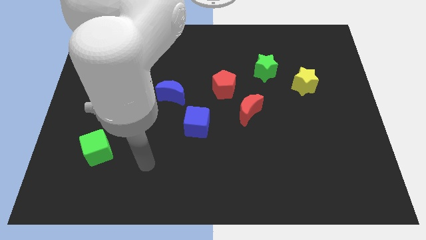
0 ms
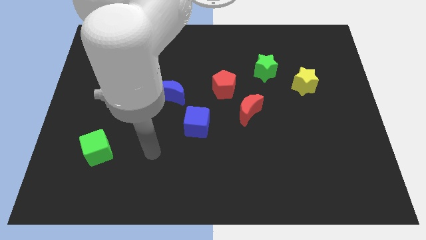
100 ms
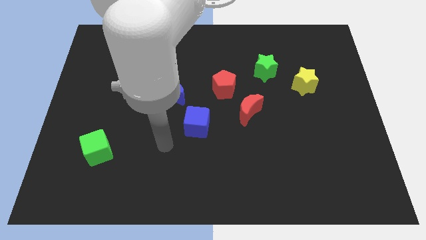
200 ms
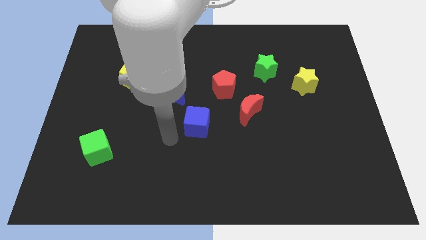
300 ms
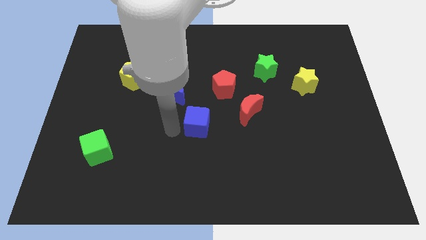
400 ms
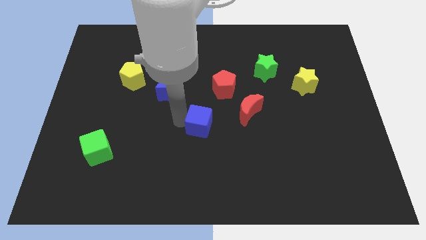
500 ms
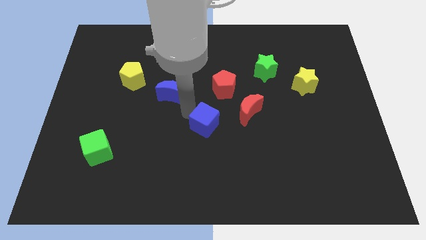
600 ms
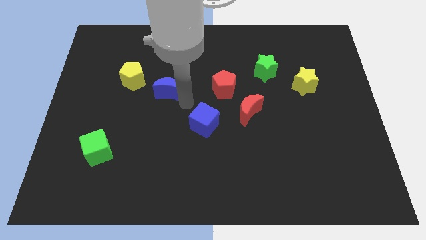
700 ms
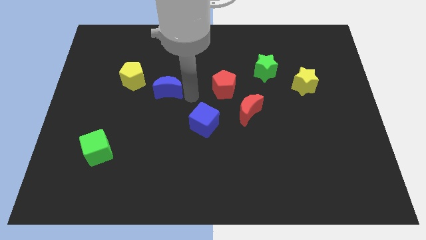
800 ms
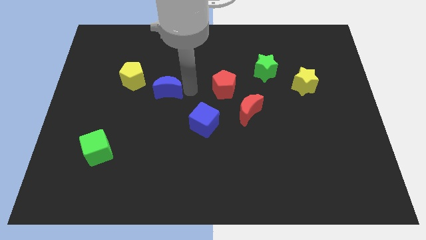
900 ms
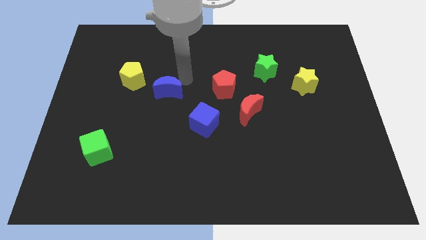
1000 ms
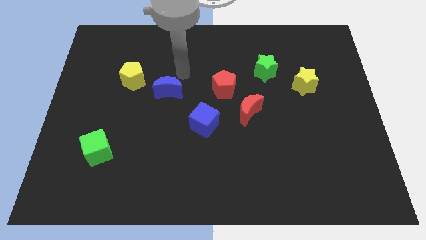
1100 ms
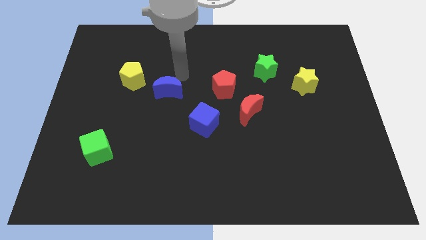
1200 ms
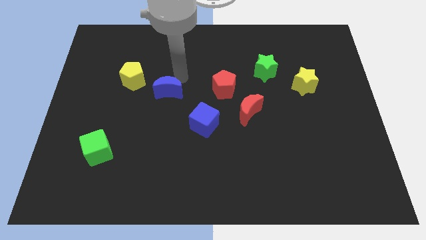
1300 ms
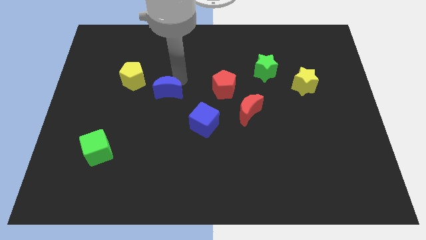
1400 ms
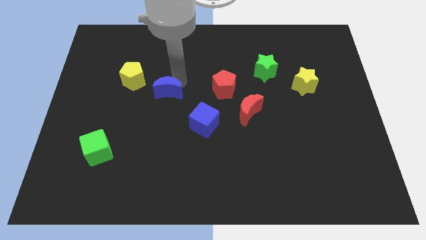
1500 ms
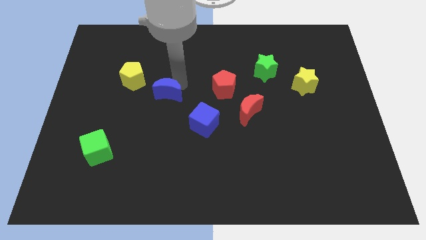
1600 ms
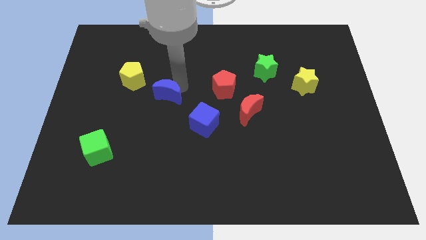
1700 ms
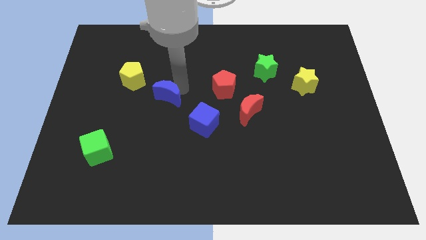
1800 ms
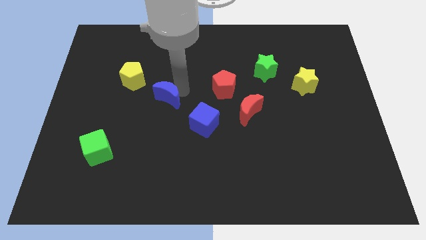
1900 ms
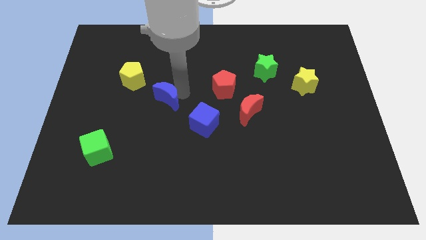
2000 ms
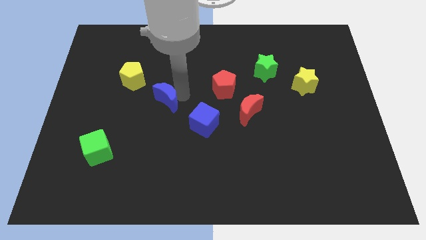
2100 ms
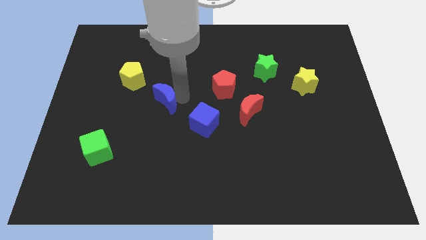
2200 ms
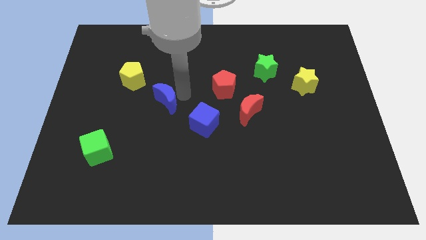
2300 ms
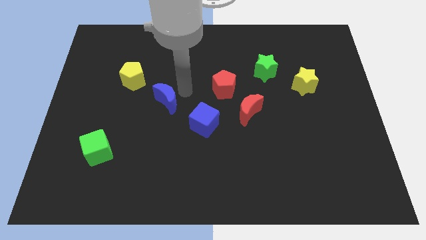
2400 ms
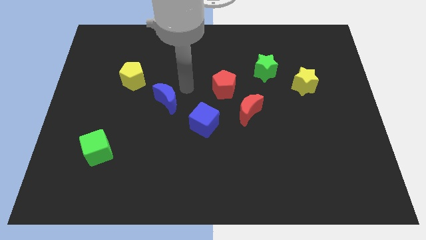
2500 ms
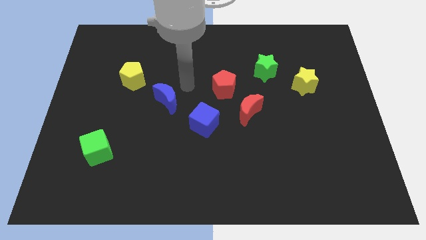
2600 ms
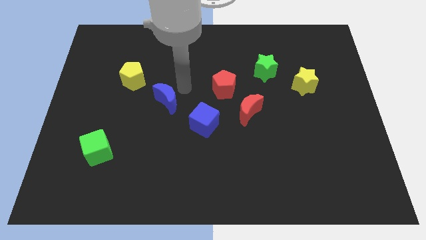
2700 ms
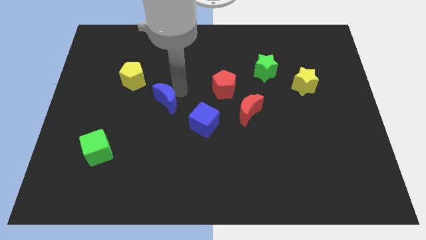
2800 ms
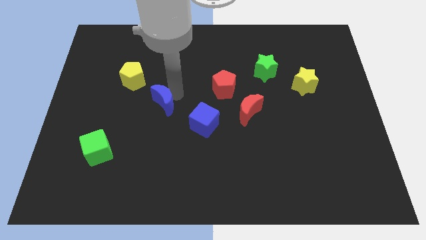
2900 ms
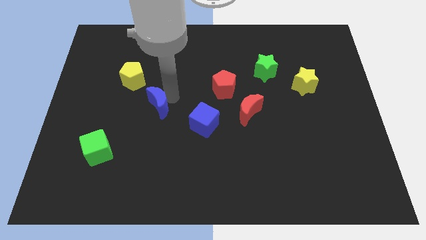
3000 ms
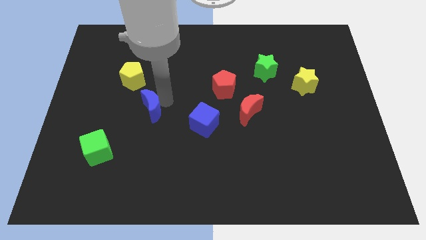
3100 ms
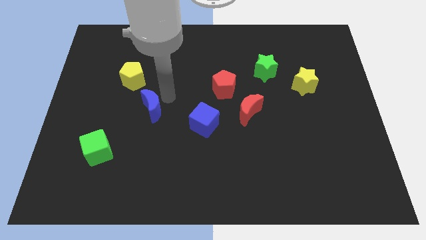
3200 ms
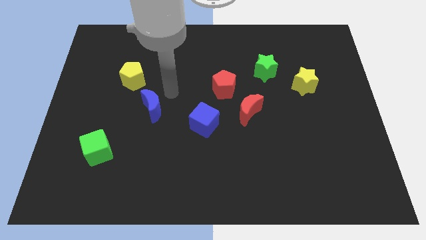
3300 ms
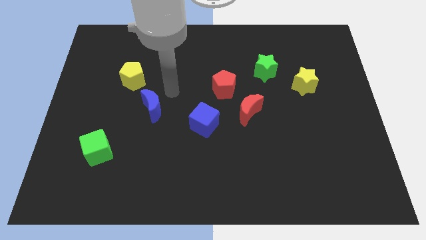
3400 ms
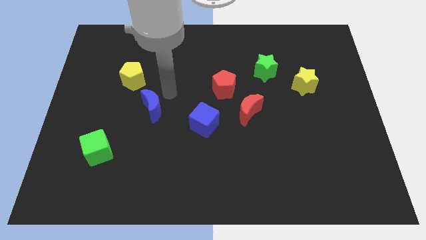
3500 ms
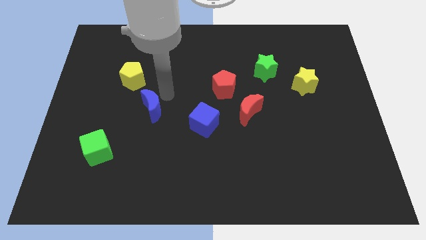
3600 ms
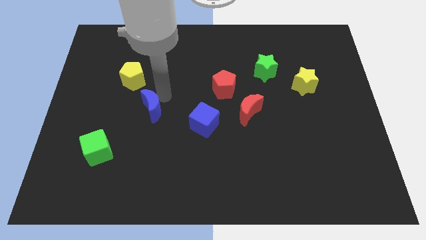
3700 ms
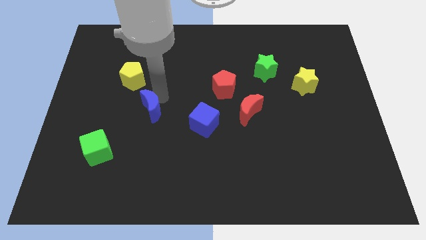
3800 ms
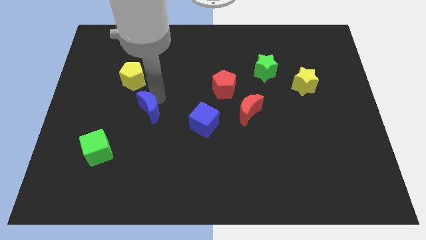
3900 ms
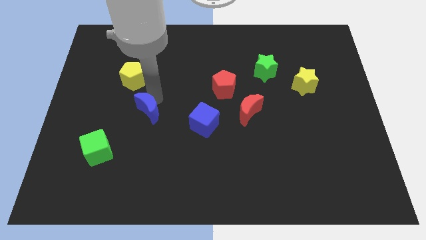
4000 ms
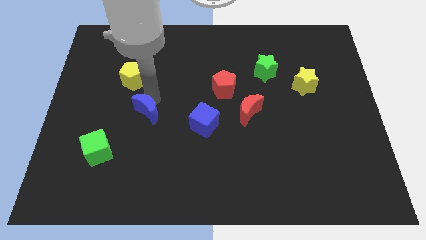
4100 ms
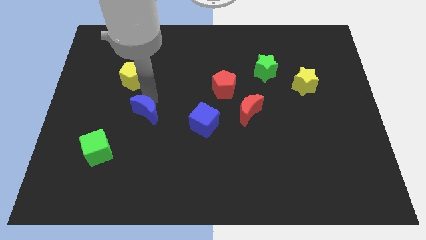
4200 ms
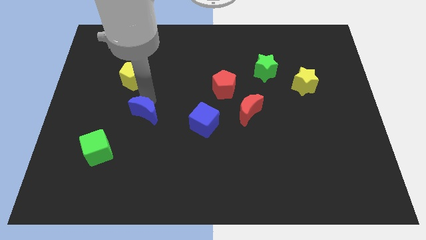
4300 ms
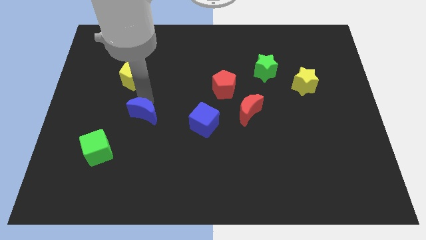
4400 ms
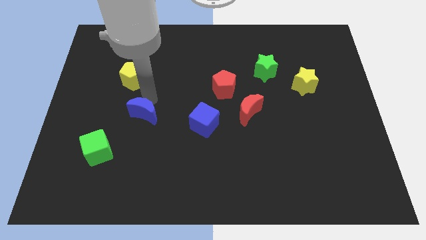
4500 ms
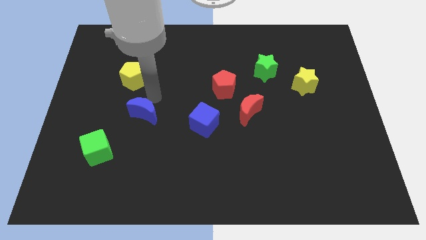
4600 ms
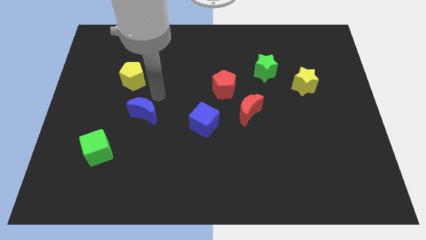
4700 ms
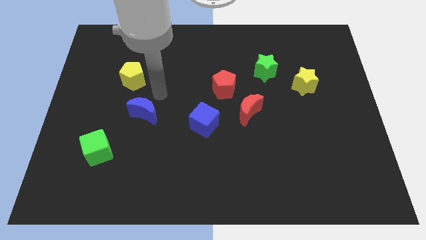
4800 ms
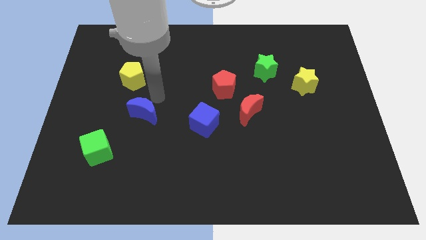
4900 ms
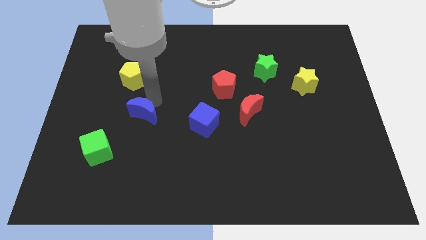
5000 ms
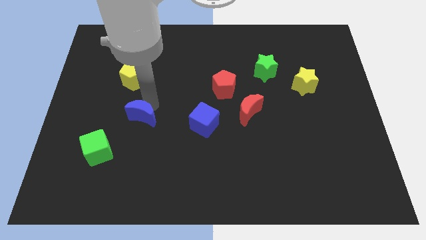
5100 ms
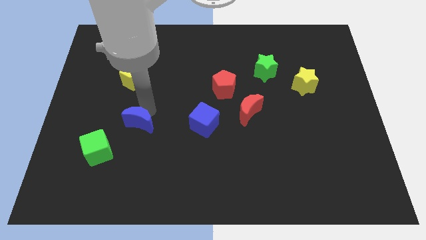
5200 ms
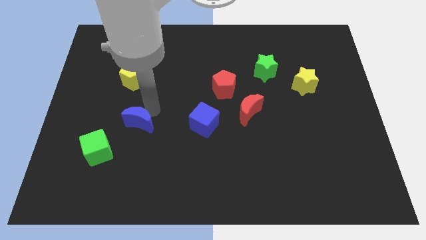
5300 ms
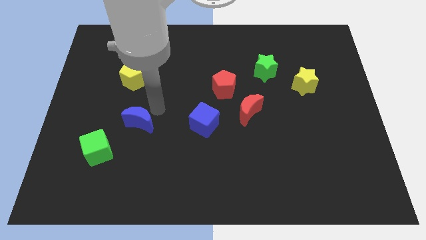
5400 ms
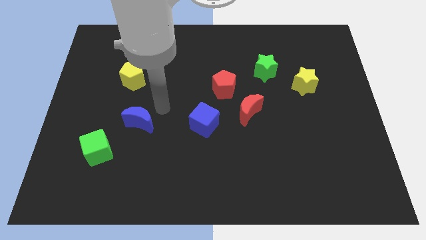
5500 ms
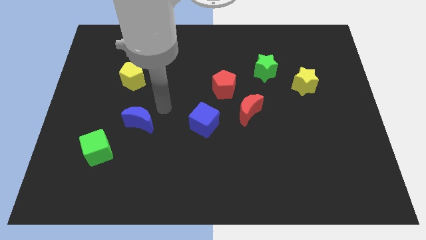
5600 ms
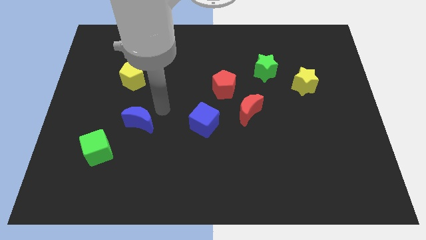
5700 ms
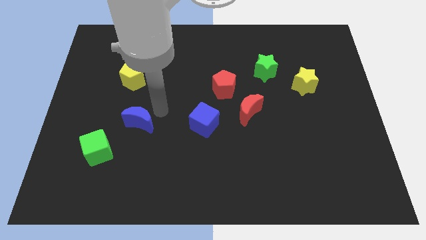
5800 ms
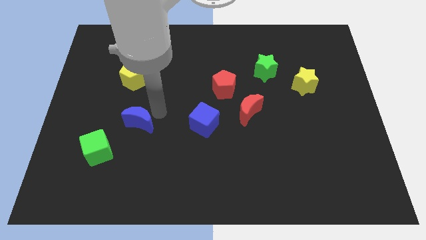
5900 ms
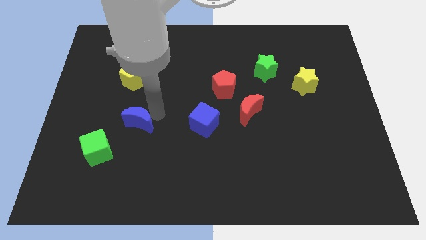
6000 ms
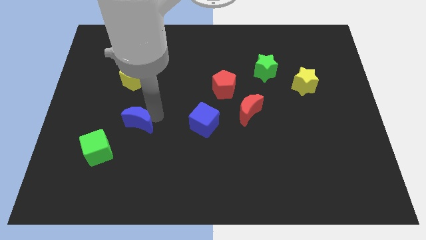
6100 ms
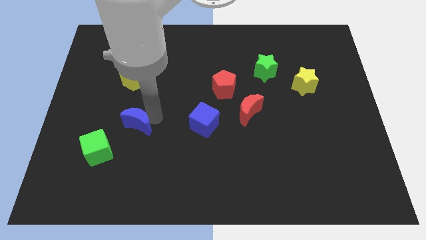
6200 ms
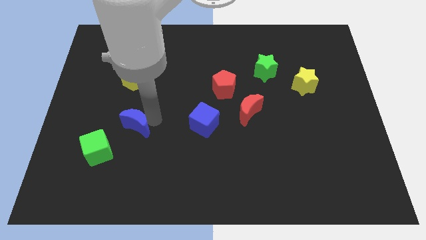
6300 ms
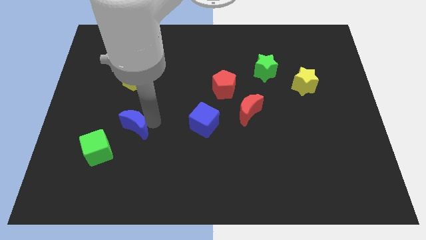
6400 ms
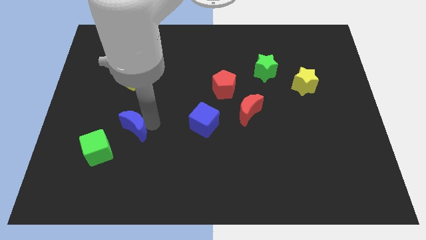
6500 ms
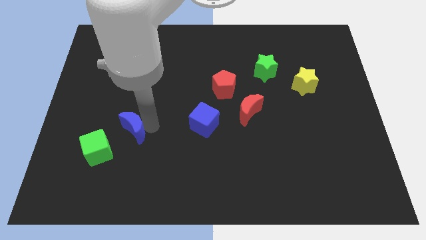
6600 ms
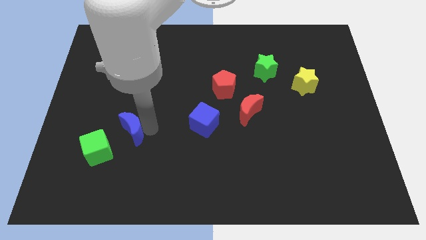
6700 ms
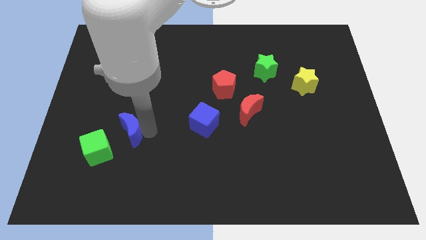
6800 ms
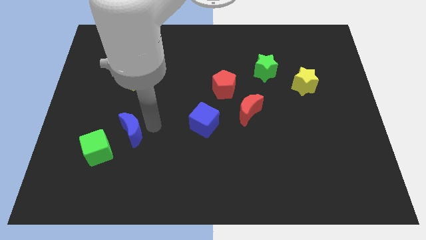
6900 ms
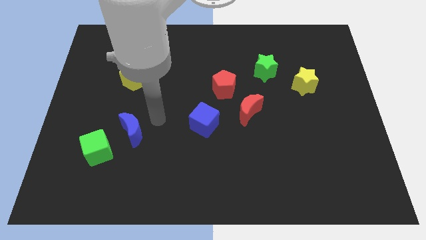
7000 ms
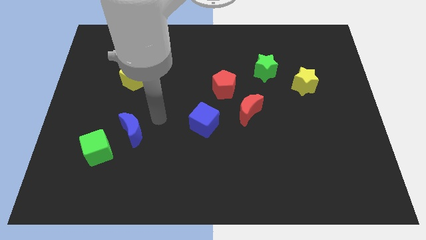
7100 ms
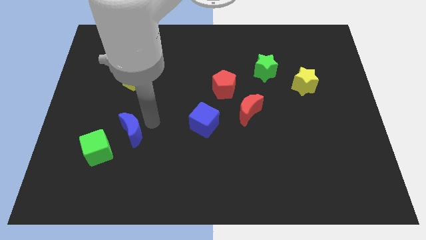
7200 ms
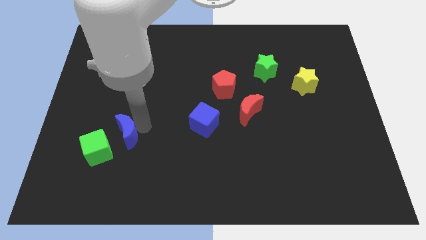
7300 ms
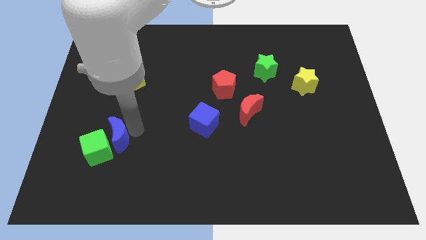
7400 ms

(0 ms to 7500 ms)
move the blue moon towards the green cube

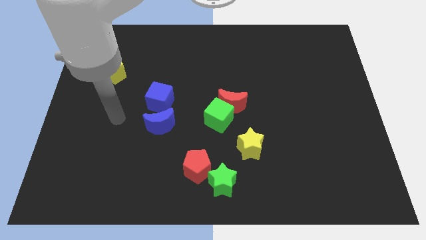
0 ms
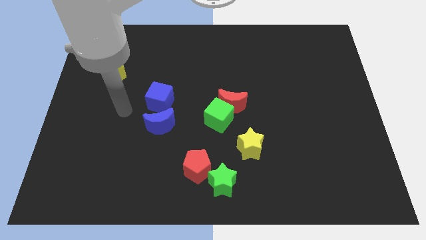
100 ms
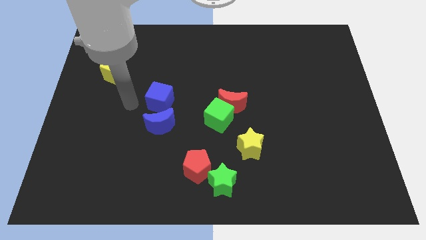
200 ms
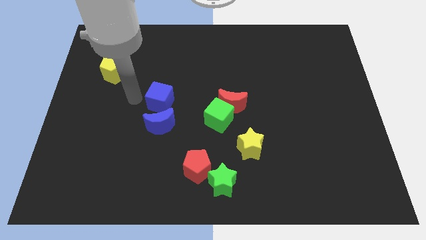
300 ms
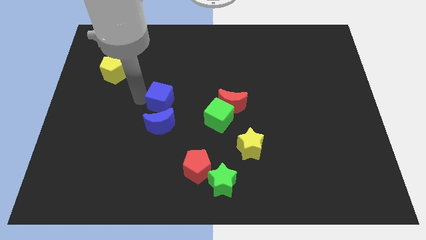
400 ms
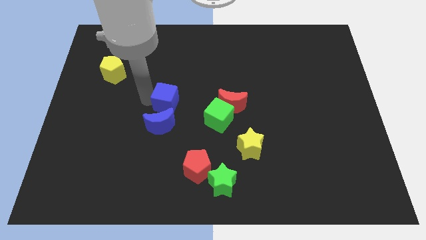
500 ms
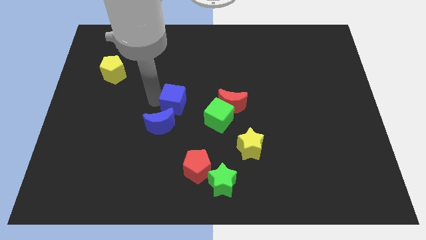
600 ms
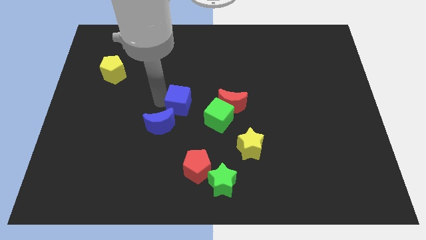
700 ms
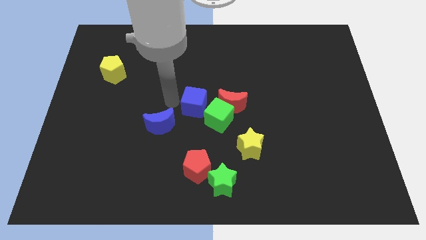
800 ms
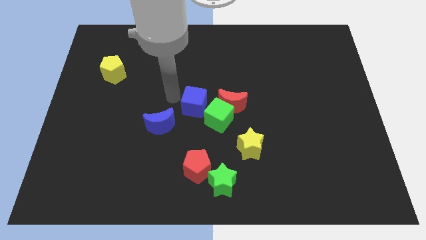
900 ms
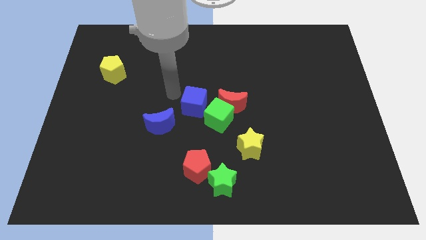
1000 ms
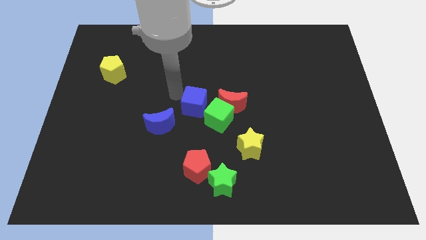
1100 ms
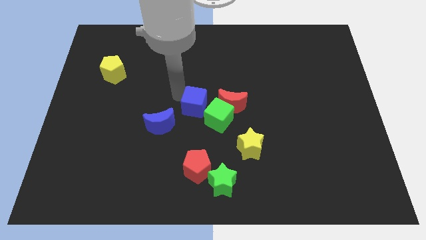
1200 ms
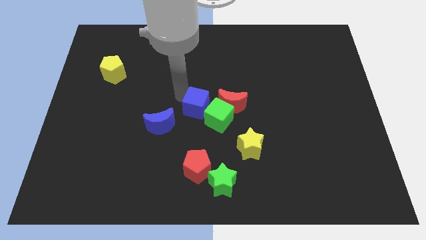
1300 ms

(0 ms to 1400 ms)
put the blue cube close to the green cube
